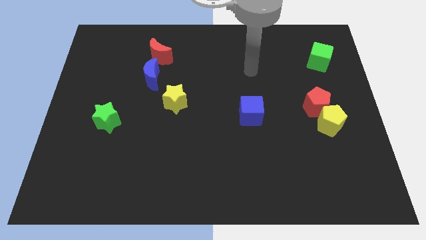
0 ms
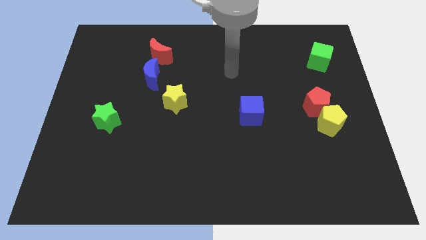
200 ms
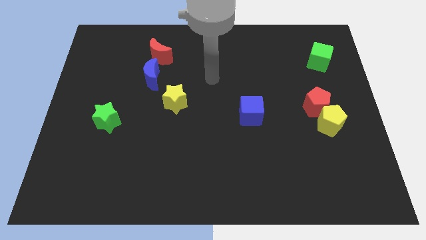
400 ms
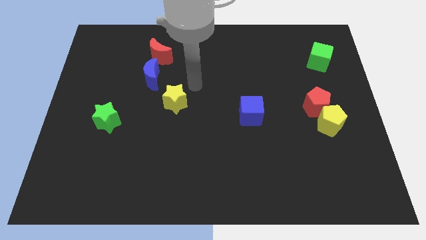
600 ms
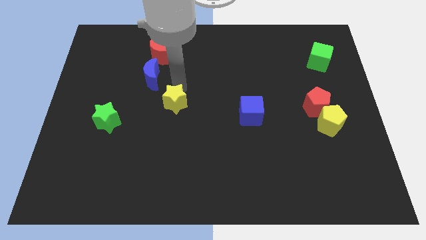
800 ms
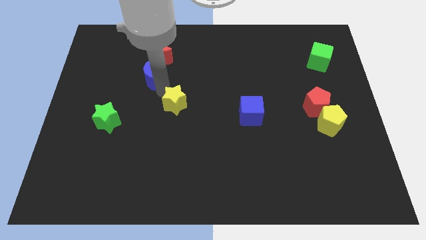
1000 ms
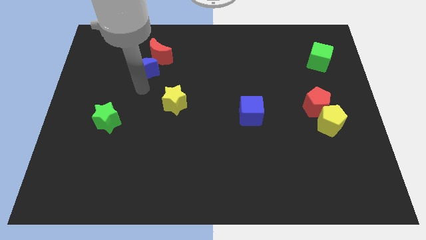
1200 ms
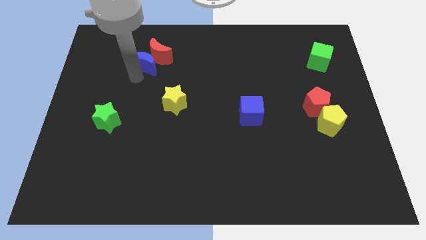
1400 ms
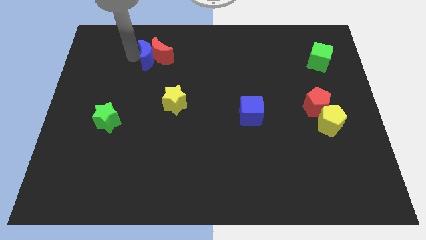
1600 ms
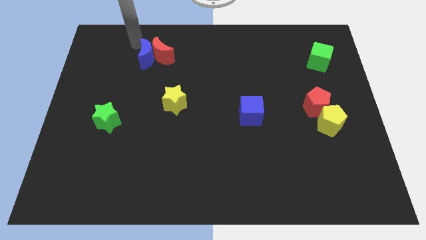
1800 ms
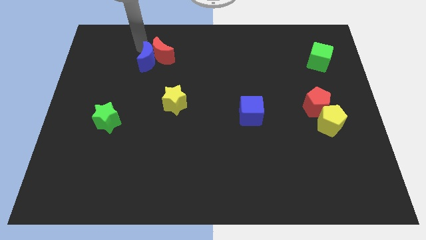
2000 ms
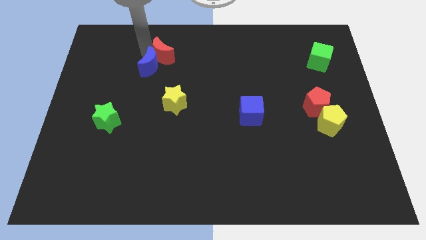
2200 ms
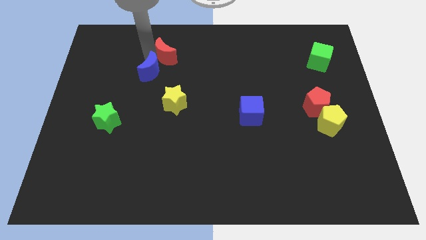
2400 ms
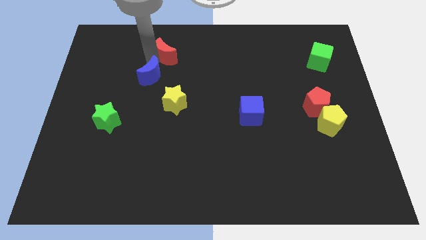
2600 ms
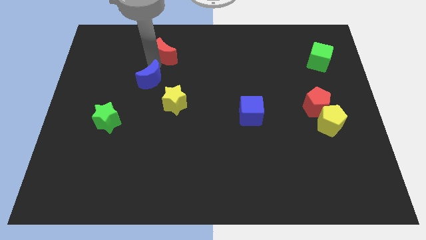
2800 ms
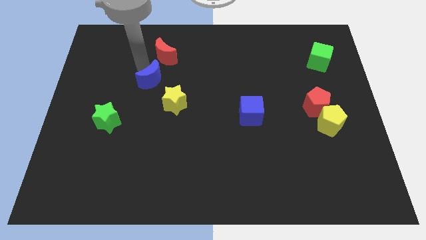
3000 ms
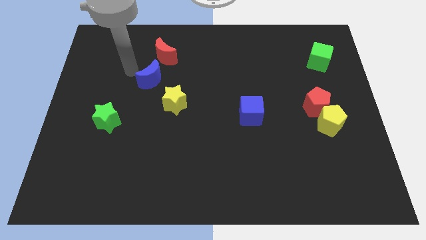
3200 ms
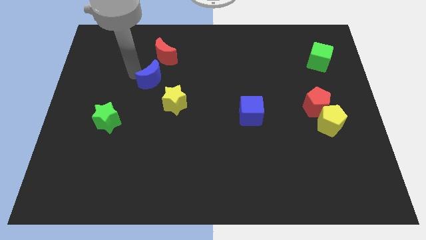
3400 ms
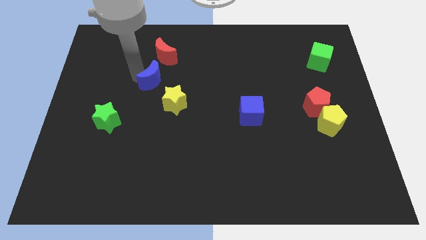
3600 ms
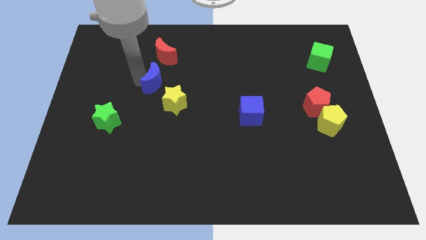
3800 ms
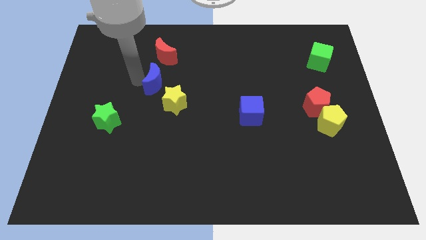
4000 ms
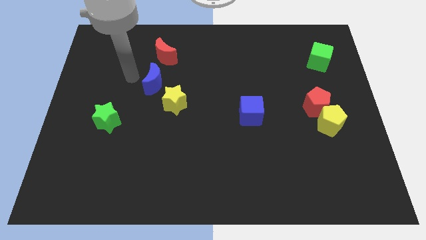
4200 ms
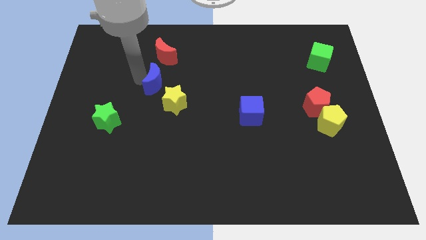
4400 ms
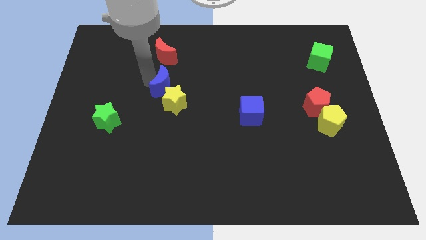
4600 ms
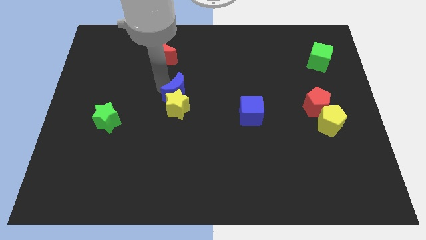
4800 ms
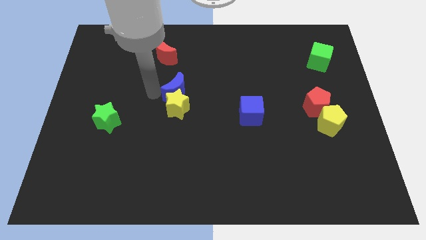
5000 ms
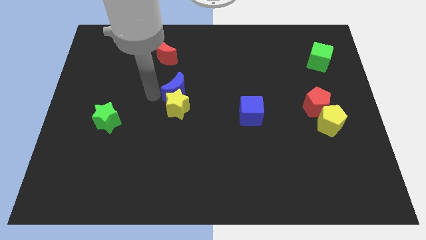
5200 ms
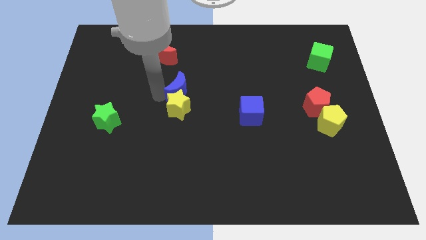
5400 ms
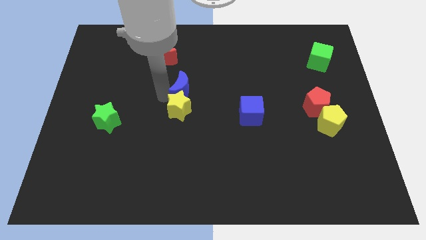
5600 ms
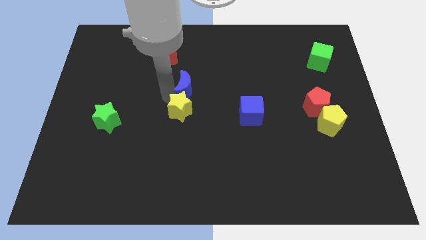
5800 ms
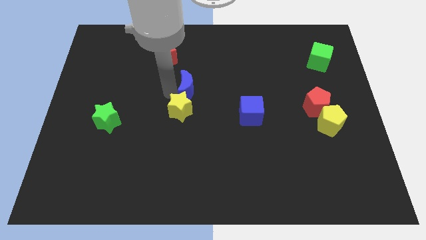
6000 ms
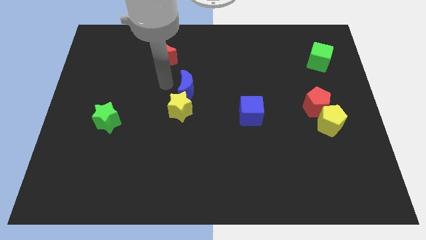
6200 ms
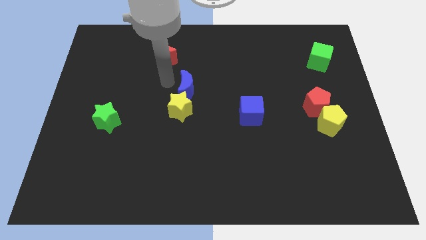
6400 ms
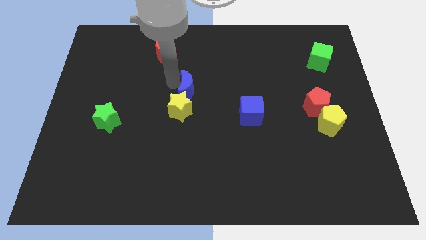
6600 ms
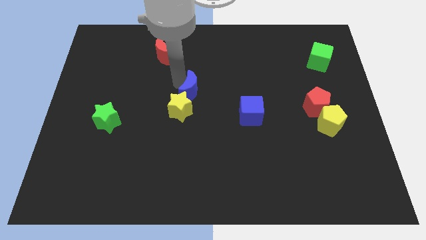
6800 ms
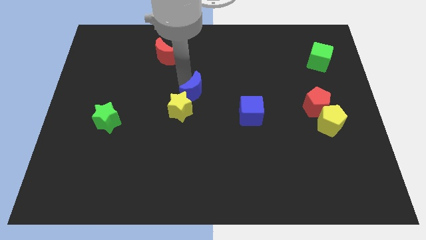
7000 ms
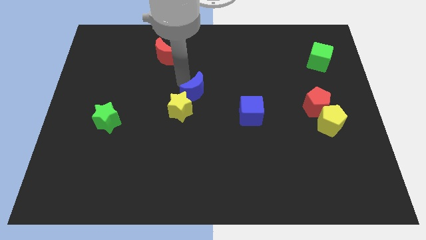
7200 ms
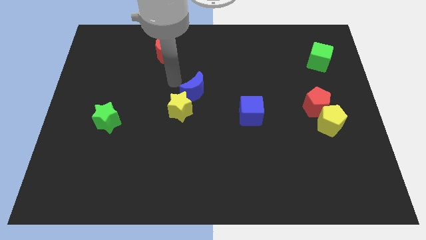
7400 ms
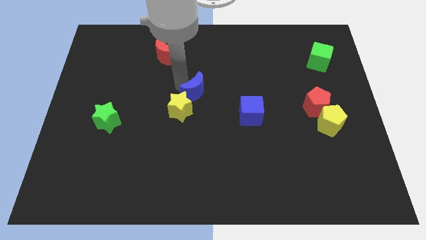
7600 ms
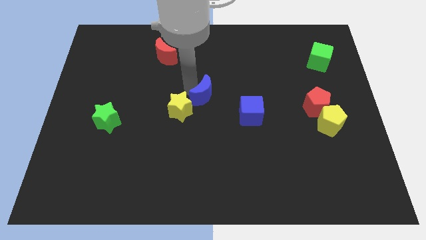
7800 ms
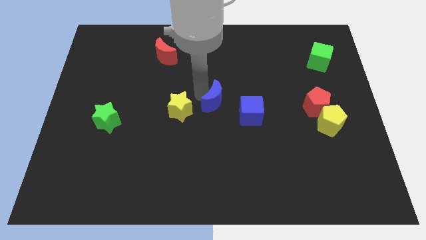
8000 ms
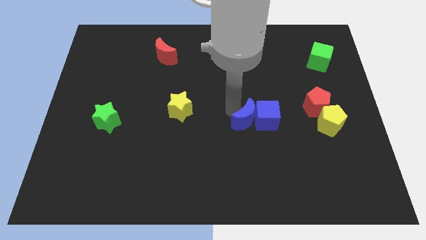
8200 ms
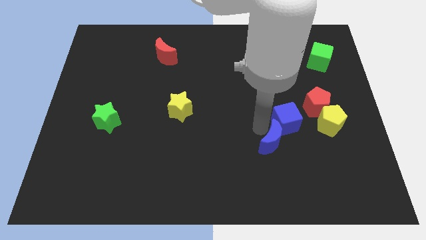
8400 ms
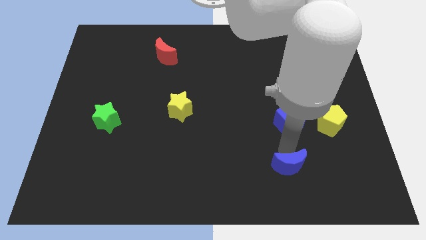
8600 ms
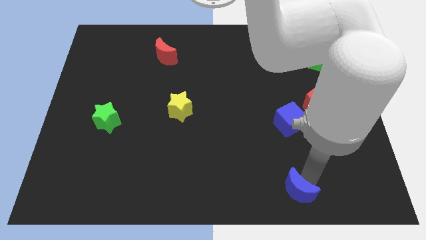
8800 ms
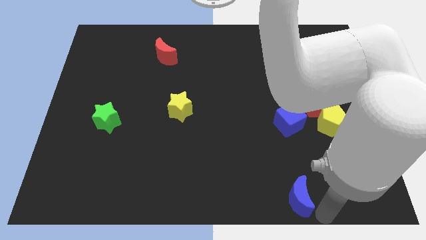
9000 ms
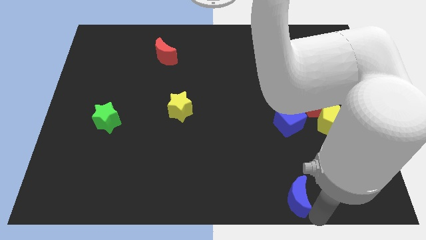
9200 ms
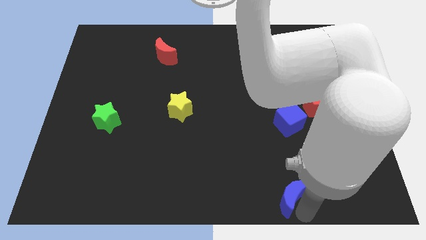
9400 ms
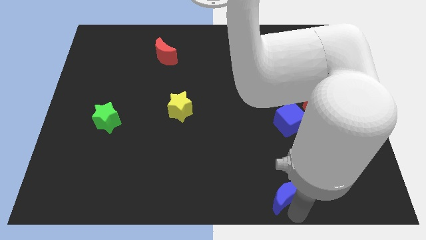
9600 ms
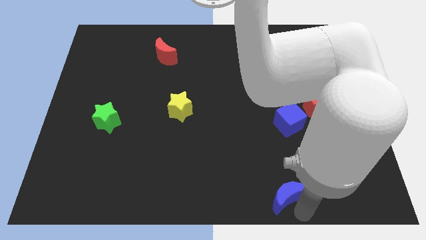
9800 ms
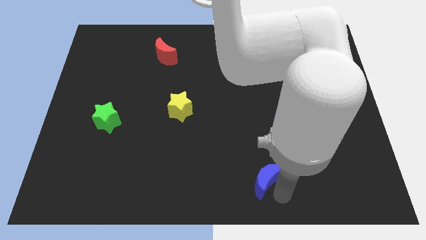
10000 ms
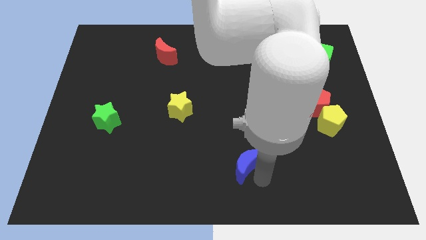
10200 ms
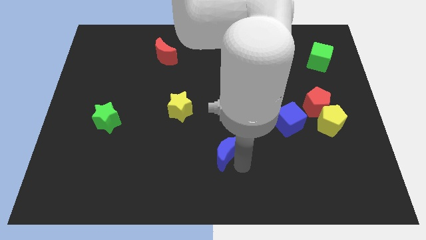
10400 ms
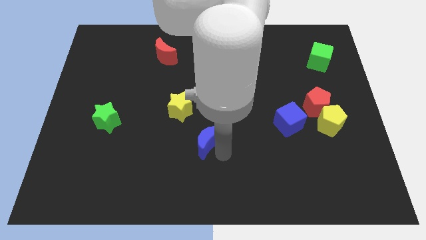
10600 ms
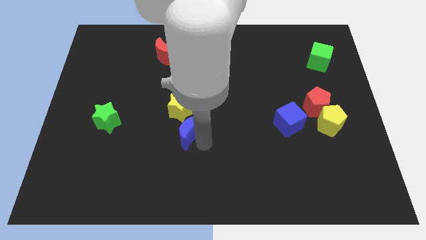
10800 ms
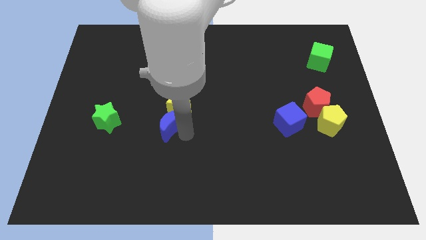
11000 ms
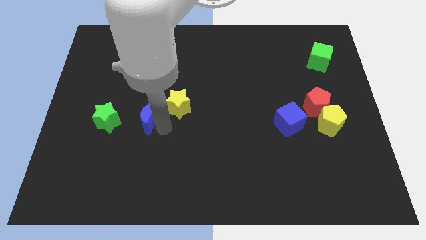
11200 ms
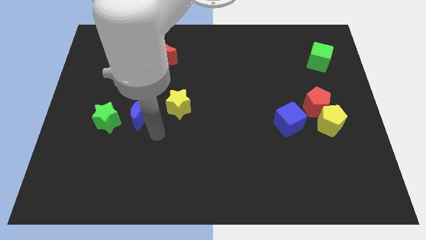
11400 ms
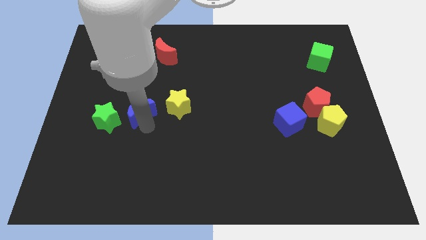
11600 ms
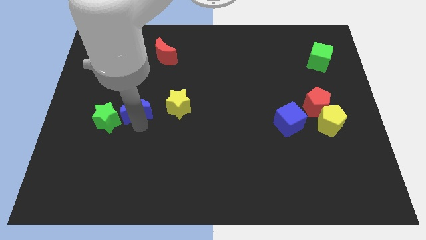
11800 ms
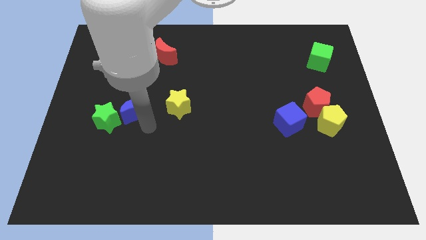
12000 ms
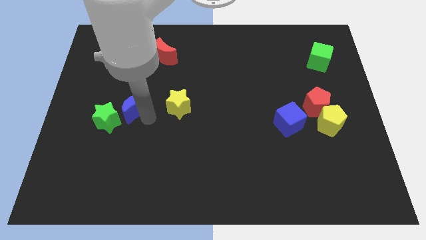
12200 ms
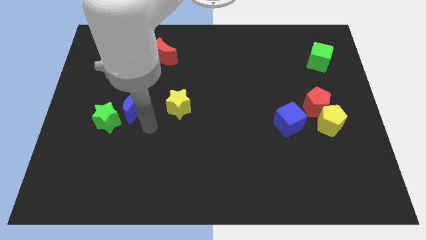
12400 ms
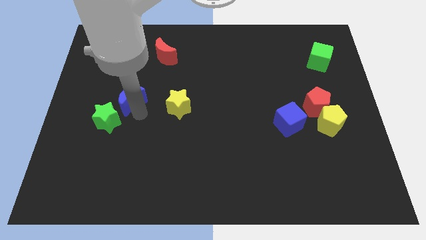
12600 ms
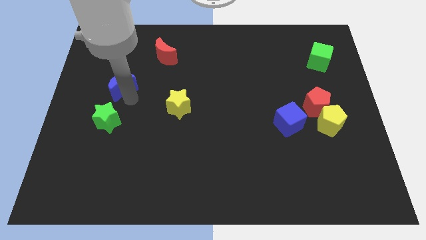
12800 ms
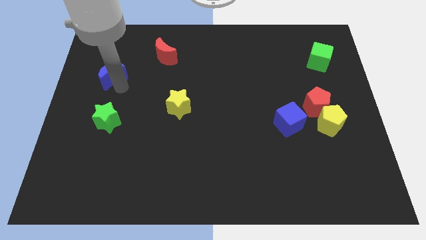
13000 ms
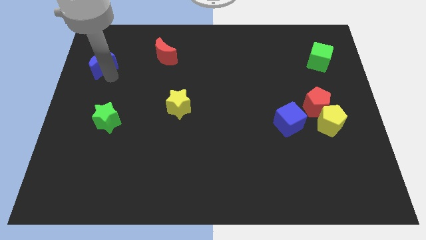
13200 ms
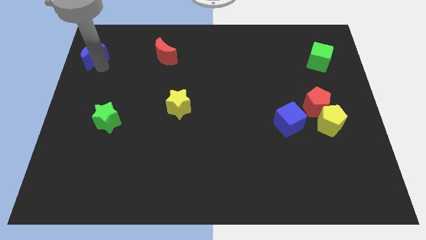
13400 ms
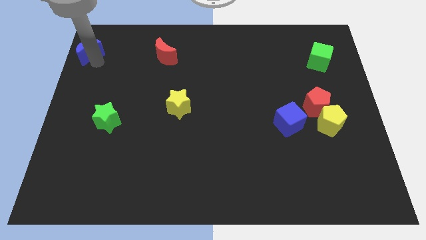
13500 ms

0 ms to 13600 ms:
push the blue moon to the upper left corner
